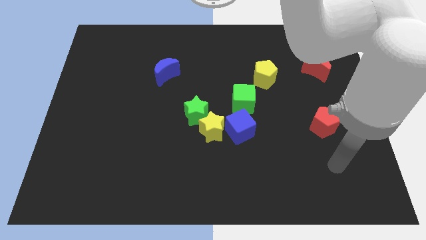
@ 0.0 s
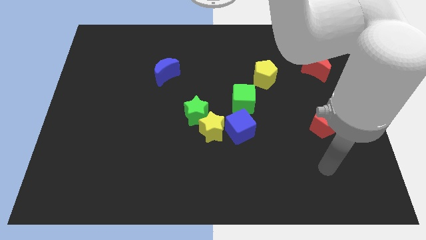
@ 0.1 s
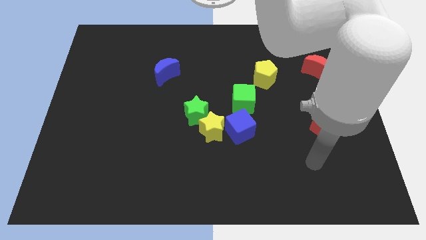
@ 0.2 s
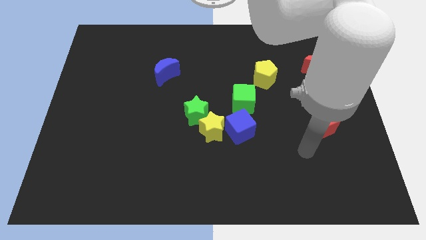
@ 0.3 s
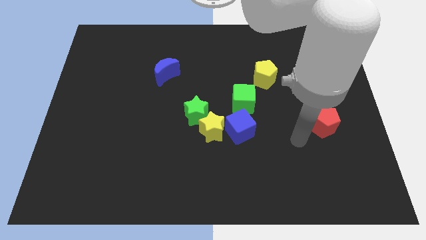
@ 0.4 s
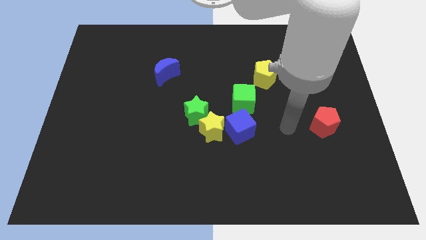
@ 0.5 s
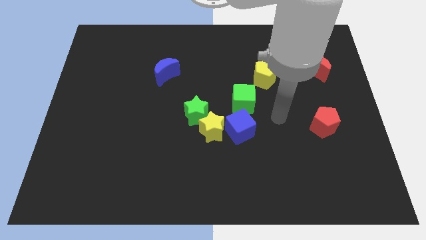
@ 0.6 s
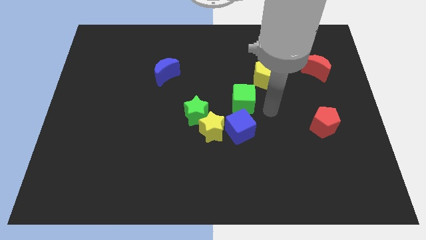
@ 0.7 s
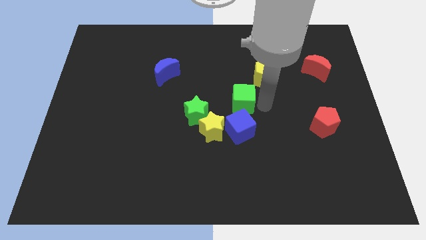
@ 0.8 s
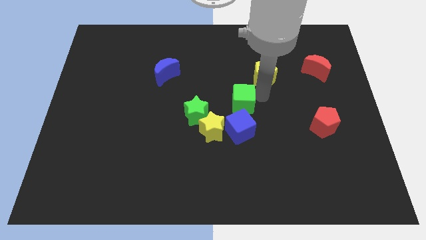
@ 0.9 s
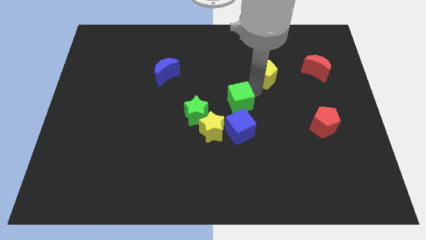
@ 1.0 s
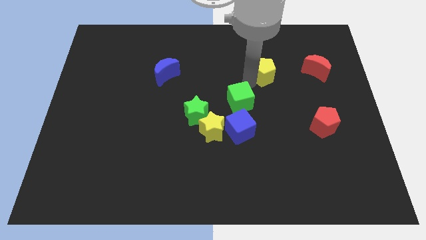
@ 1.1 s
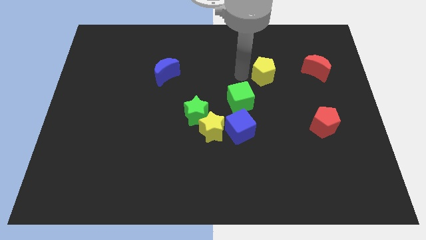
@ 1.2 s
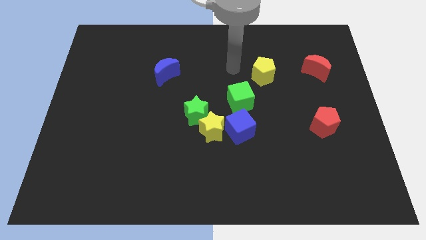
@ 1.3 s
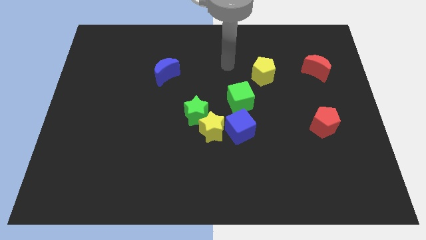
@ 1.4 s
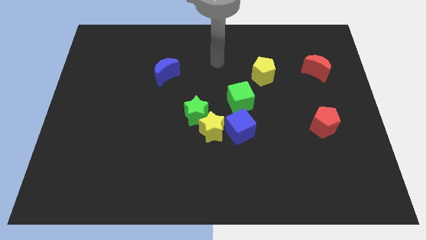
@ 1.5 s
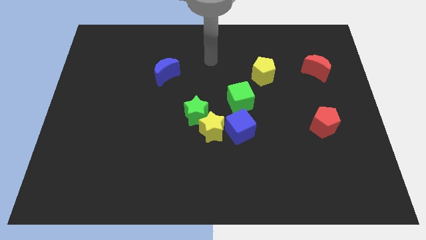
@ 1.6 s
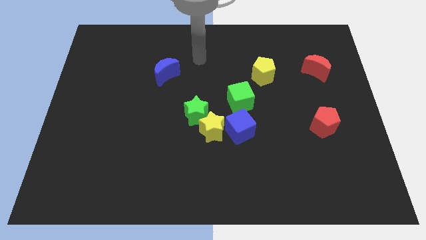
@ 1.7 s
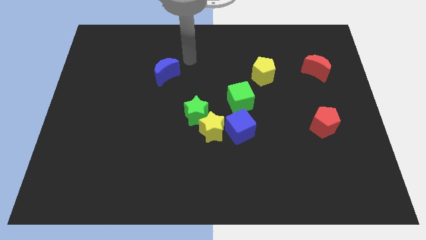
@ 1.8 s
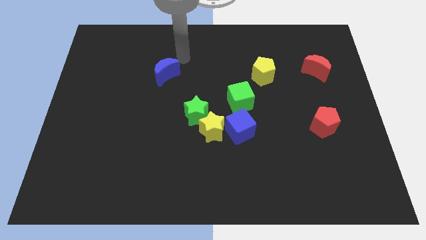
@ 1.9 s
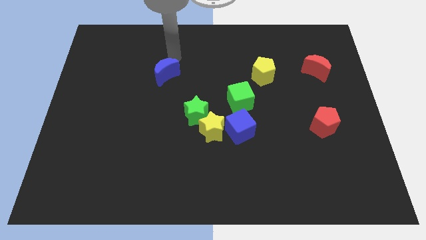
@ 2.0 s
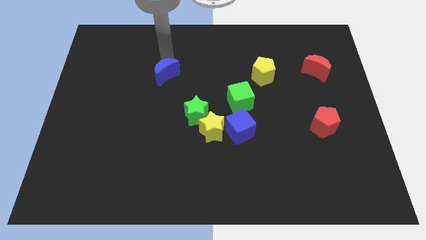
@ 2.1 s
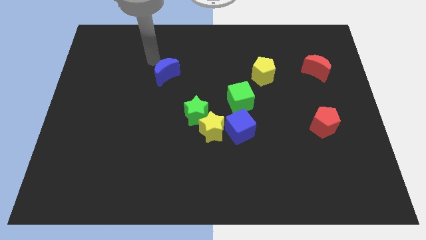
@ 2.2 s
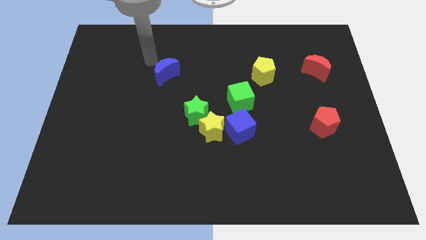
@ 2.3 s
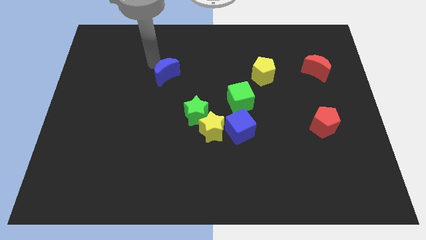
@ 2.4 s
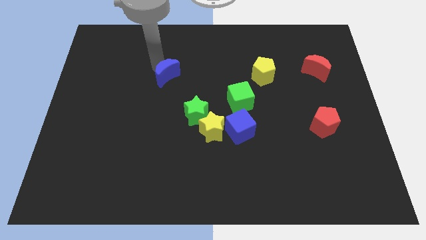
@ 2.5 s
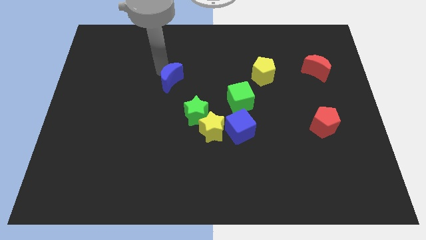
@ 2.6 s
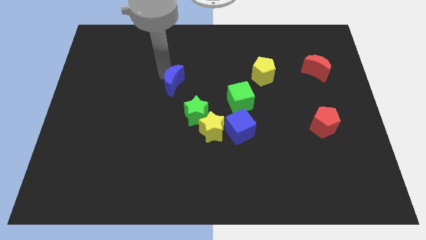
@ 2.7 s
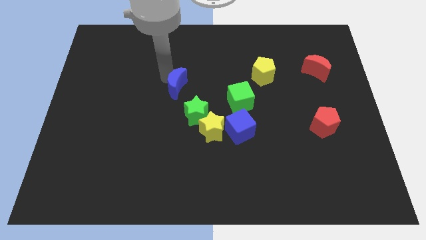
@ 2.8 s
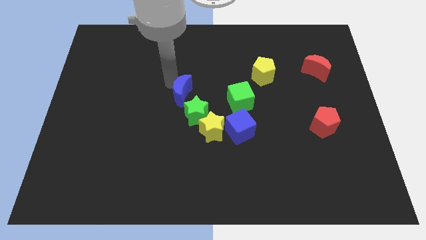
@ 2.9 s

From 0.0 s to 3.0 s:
push the blue moon down and right diagonally a little

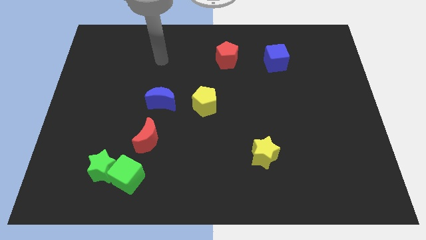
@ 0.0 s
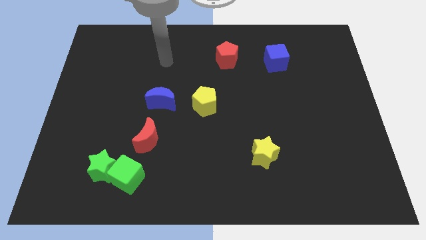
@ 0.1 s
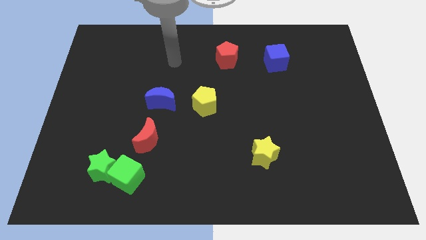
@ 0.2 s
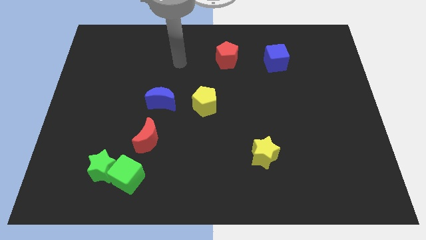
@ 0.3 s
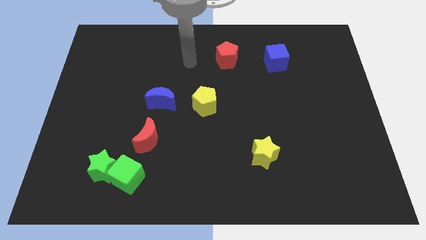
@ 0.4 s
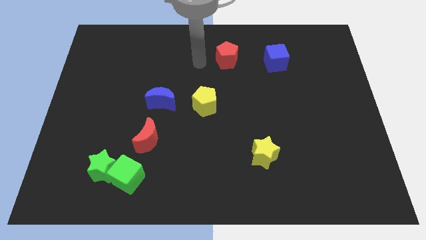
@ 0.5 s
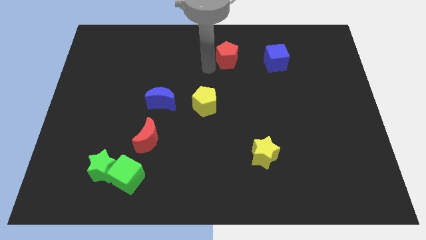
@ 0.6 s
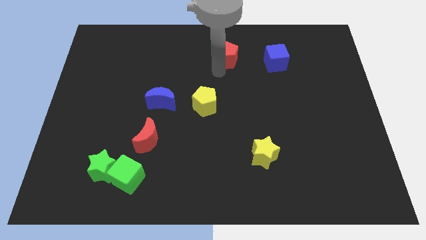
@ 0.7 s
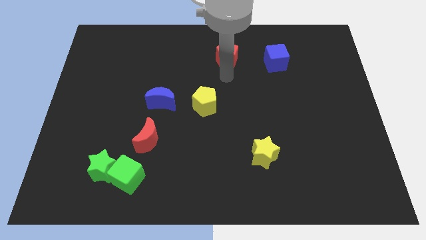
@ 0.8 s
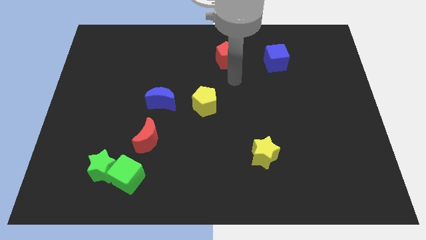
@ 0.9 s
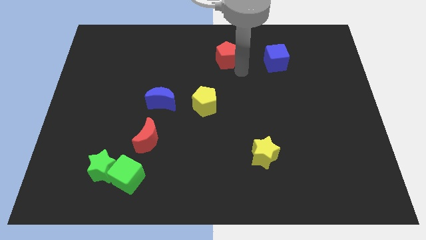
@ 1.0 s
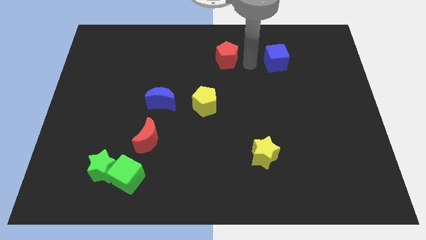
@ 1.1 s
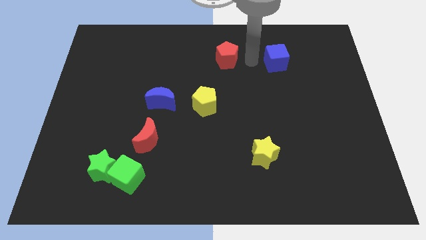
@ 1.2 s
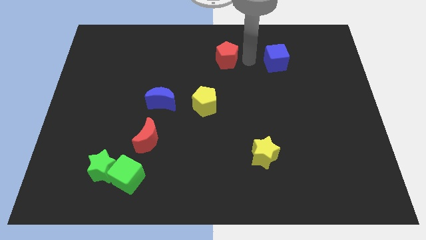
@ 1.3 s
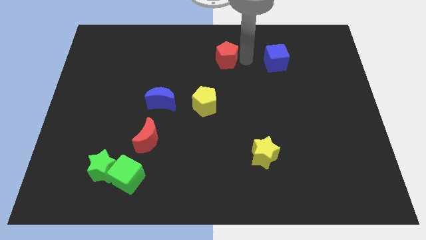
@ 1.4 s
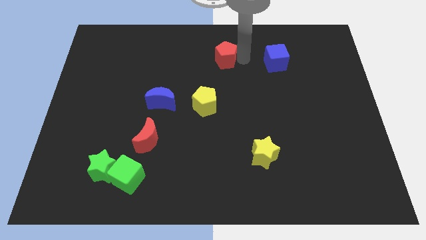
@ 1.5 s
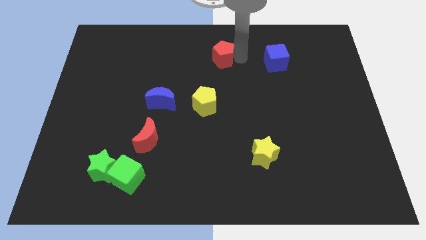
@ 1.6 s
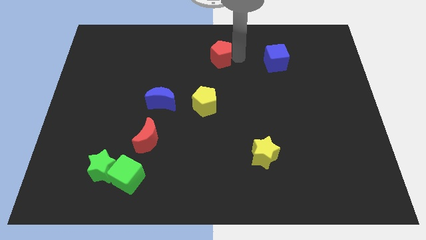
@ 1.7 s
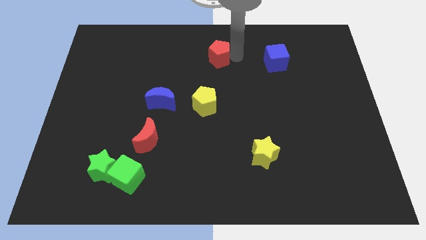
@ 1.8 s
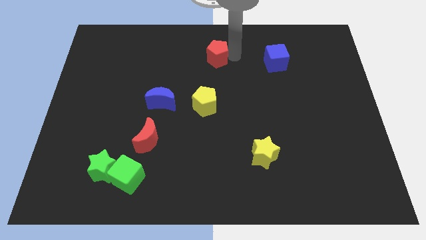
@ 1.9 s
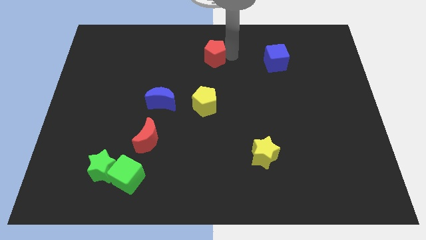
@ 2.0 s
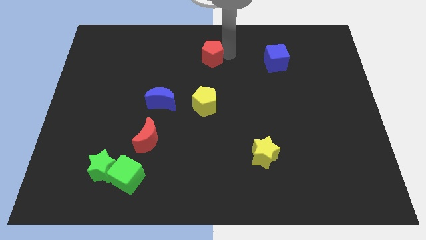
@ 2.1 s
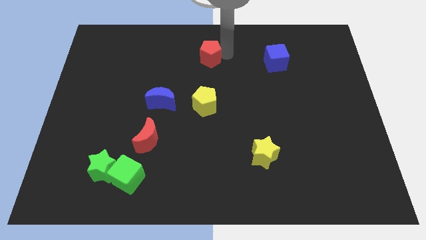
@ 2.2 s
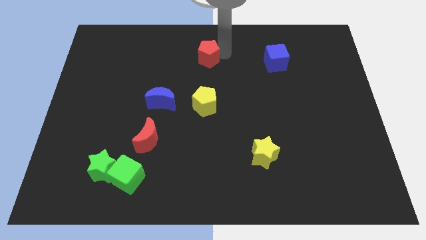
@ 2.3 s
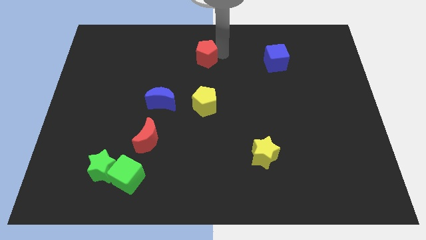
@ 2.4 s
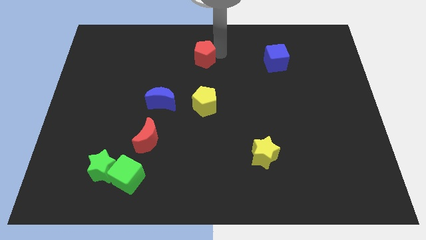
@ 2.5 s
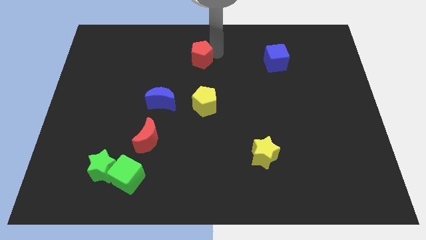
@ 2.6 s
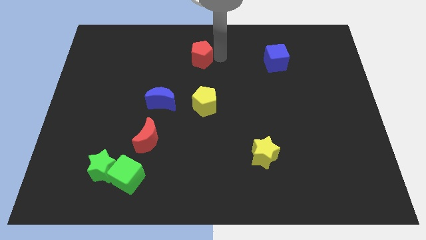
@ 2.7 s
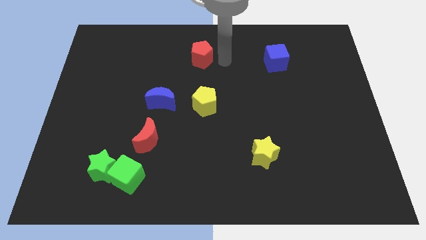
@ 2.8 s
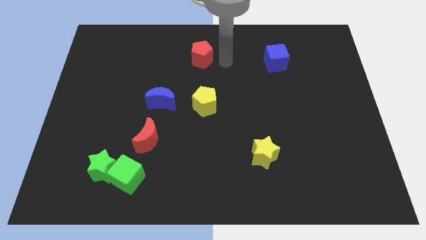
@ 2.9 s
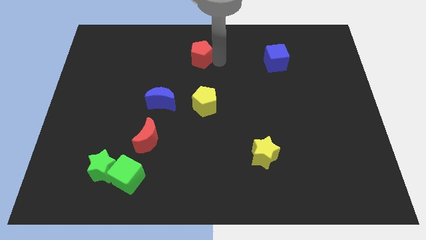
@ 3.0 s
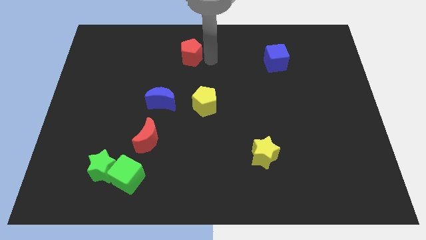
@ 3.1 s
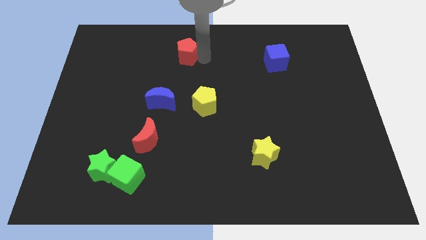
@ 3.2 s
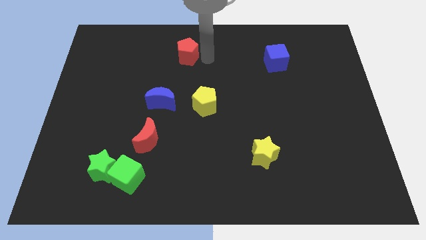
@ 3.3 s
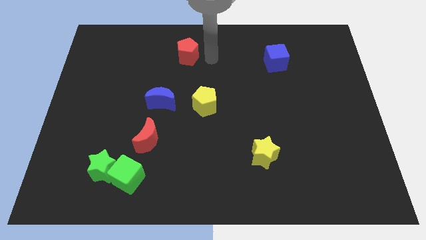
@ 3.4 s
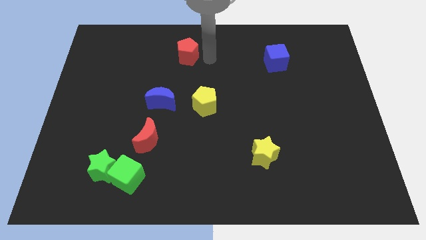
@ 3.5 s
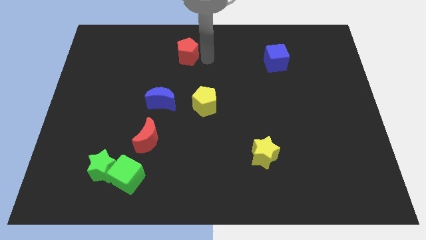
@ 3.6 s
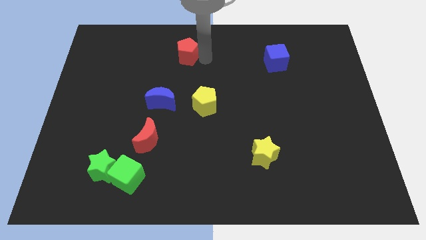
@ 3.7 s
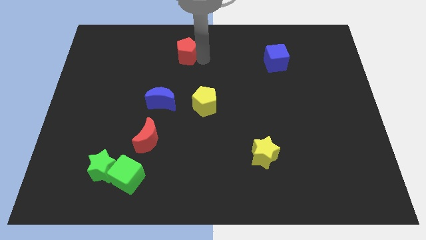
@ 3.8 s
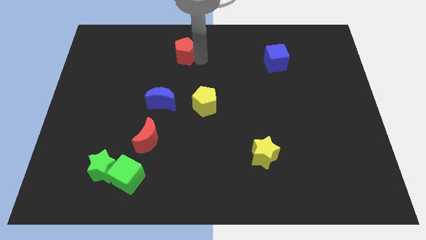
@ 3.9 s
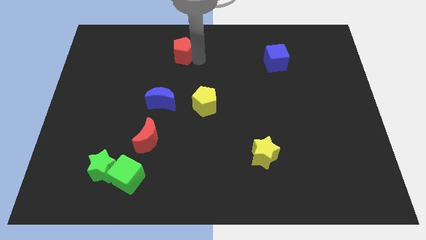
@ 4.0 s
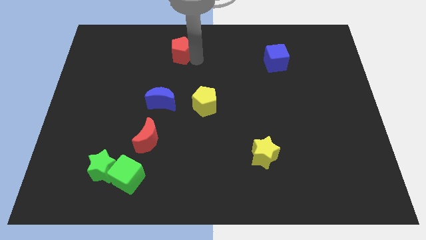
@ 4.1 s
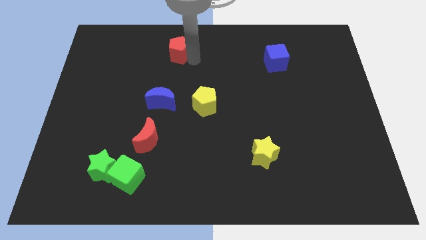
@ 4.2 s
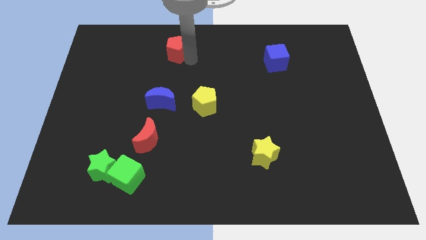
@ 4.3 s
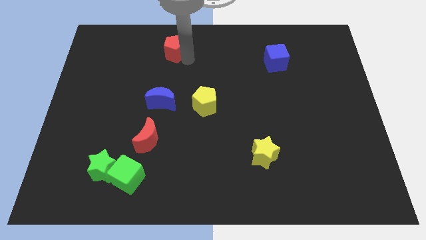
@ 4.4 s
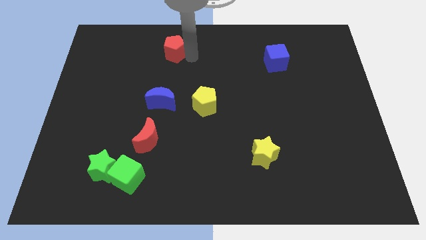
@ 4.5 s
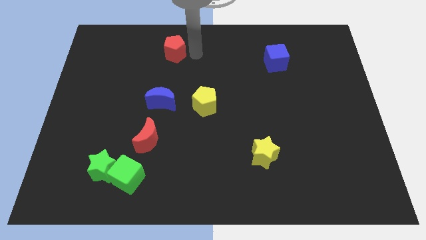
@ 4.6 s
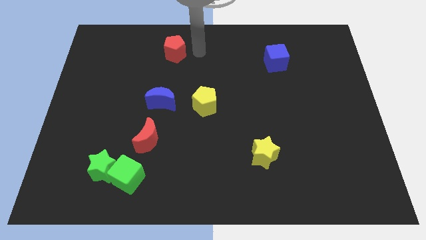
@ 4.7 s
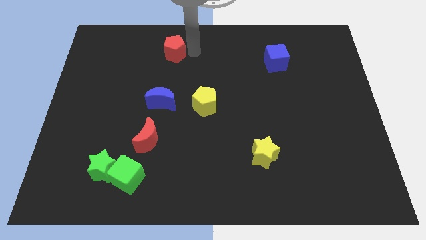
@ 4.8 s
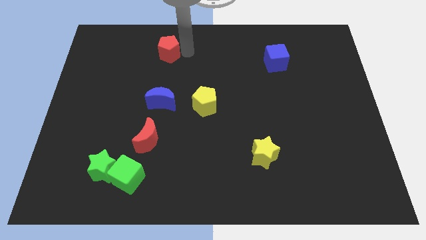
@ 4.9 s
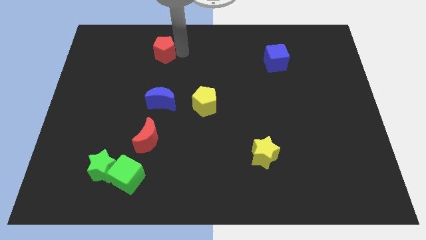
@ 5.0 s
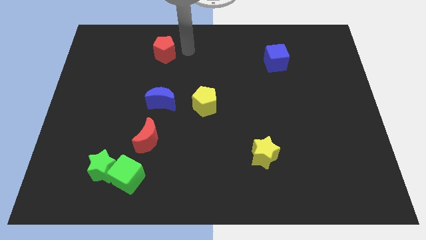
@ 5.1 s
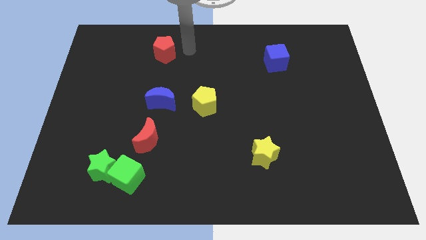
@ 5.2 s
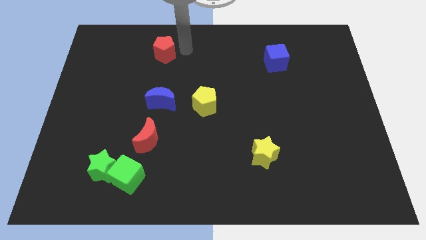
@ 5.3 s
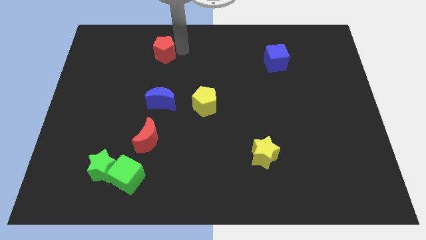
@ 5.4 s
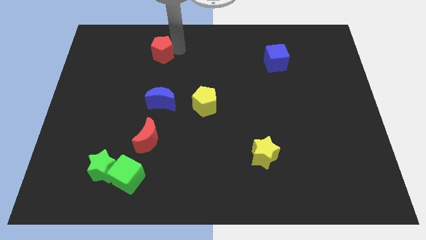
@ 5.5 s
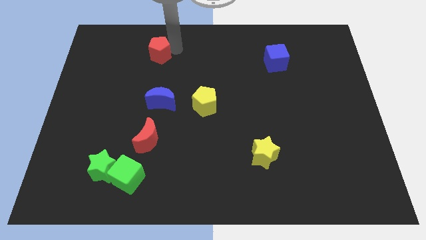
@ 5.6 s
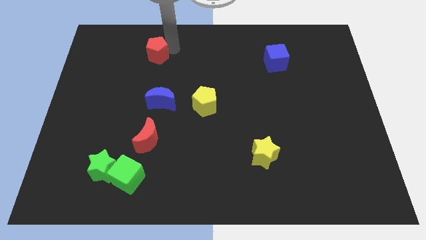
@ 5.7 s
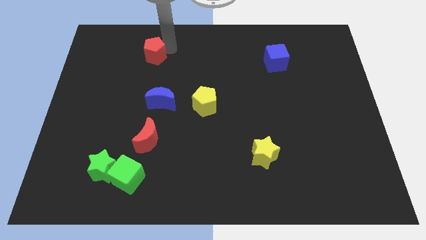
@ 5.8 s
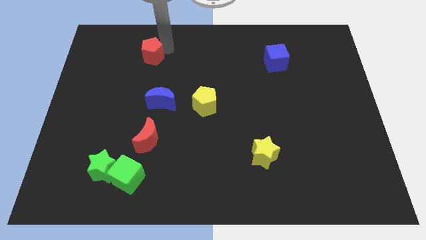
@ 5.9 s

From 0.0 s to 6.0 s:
slide the red pentagon left
